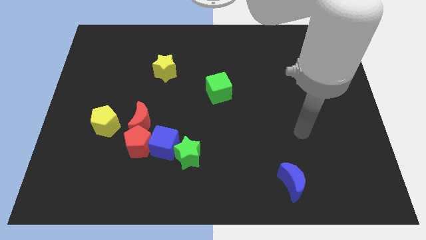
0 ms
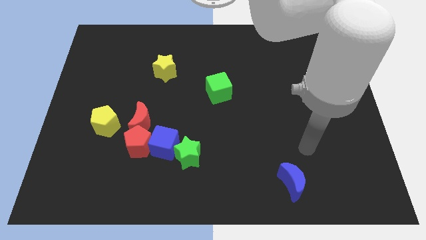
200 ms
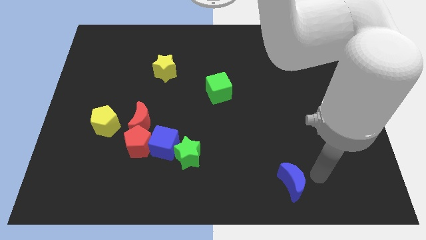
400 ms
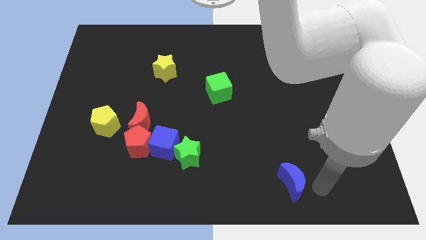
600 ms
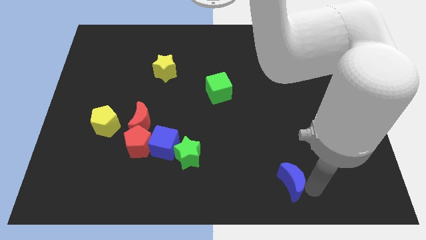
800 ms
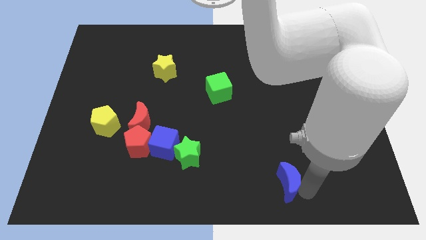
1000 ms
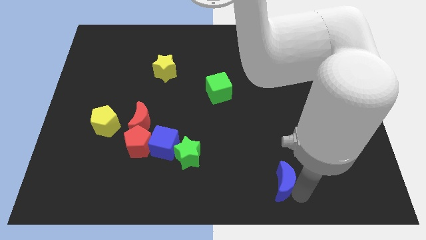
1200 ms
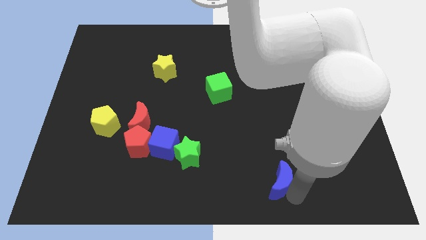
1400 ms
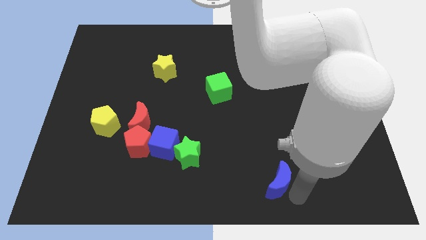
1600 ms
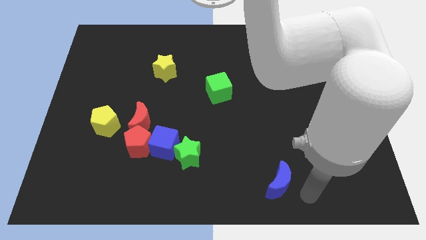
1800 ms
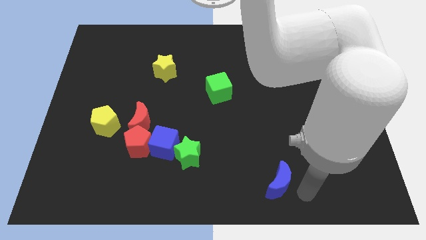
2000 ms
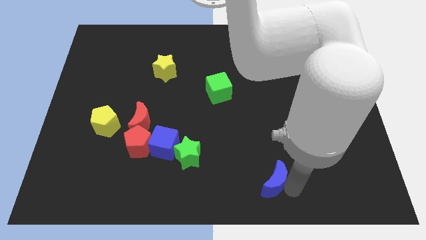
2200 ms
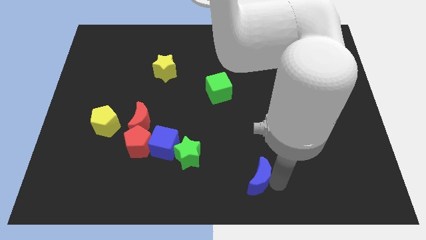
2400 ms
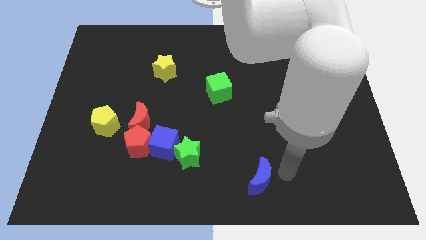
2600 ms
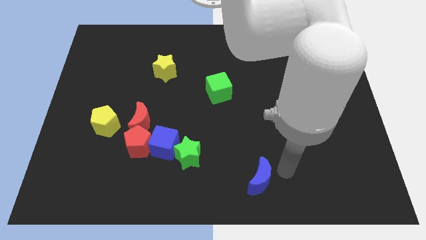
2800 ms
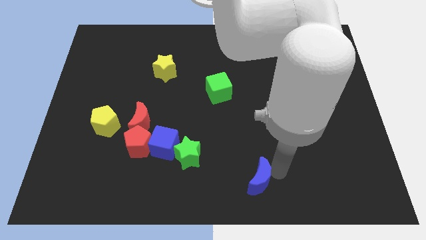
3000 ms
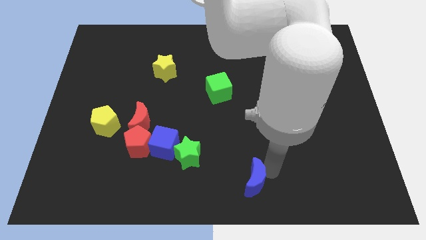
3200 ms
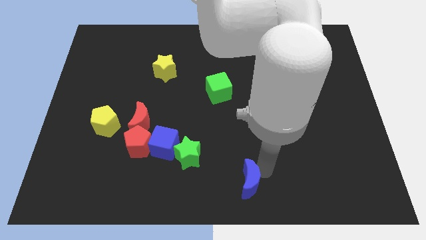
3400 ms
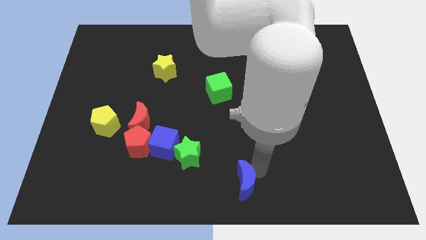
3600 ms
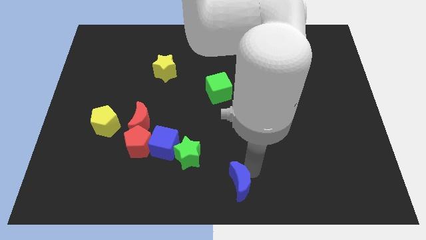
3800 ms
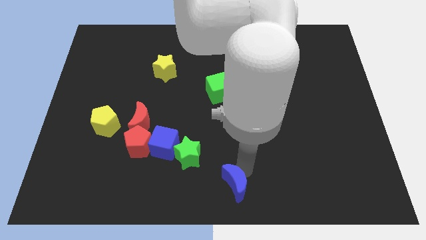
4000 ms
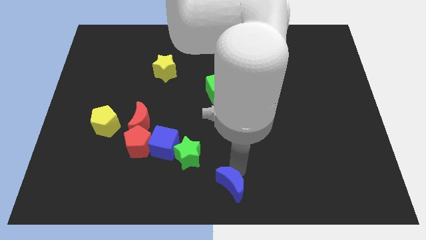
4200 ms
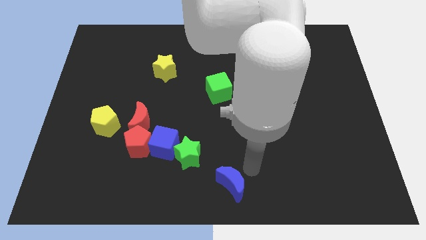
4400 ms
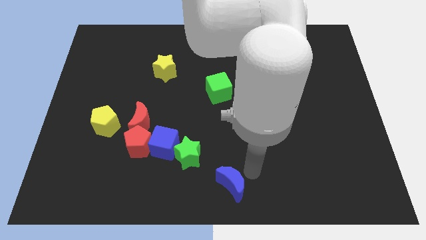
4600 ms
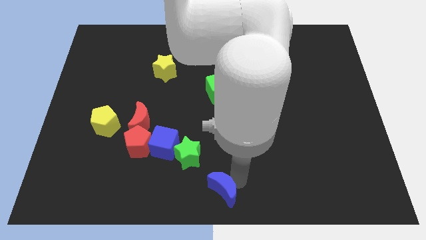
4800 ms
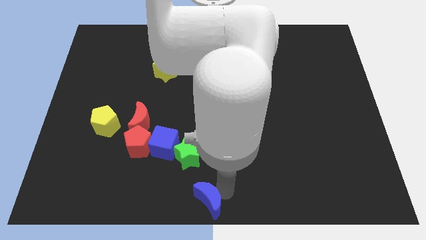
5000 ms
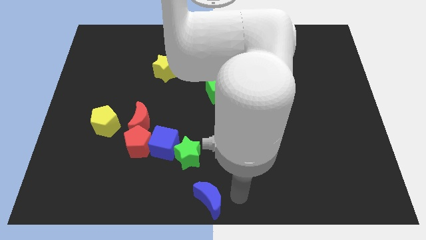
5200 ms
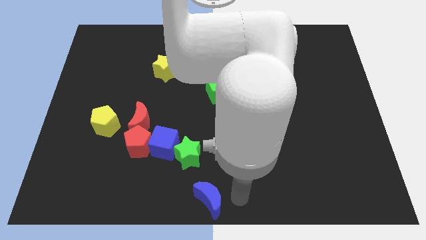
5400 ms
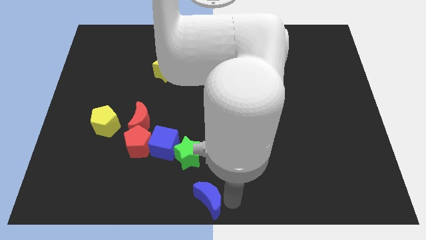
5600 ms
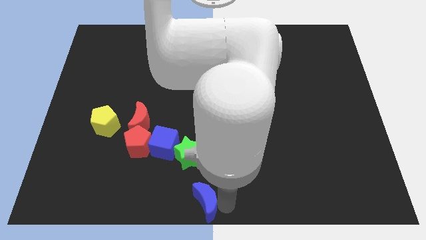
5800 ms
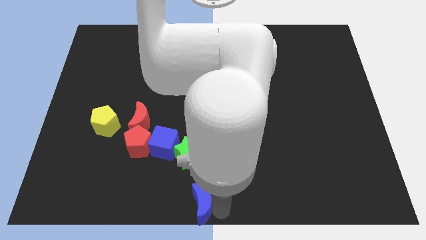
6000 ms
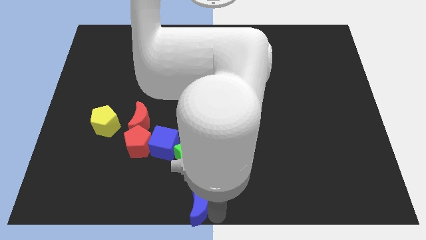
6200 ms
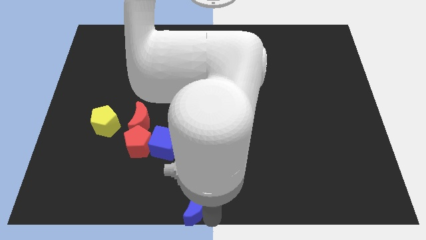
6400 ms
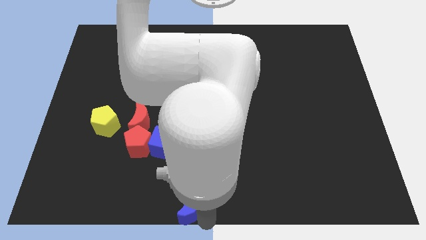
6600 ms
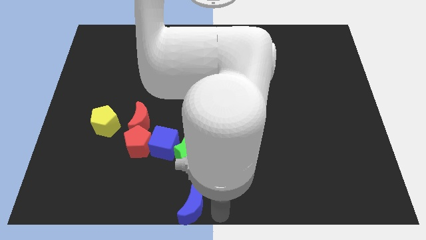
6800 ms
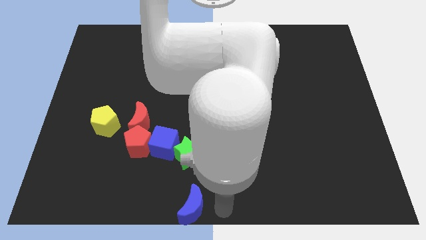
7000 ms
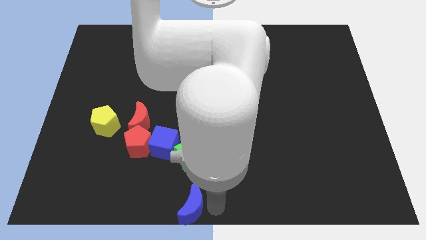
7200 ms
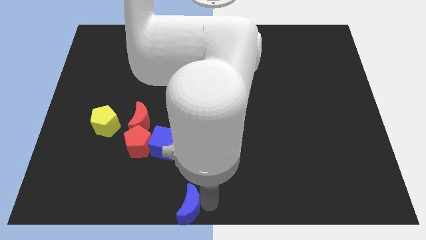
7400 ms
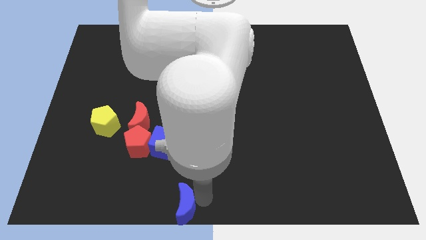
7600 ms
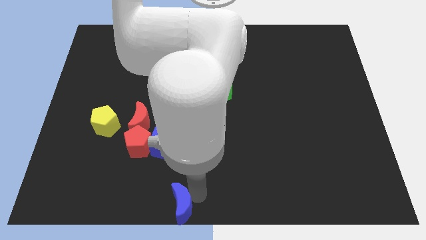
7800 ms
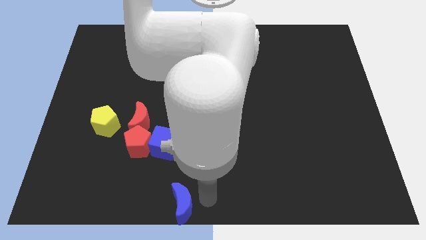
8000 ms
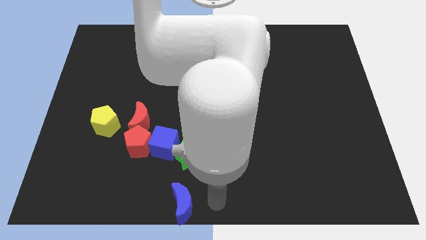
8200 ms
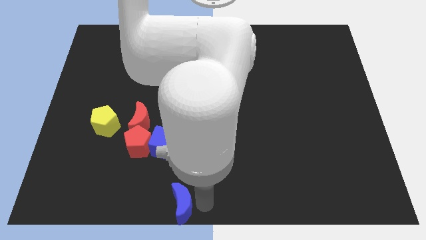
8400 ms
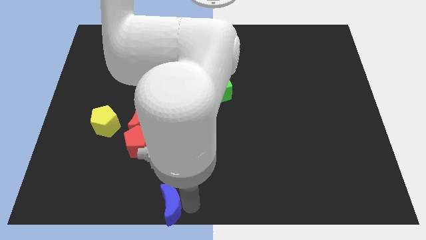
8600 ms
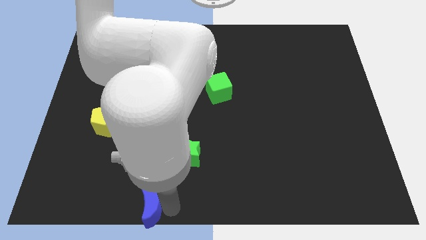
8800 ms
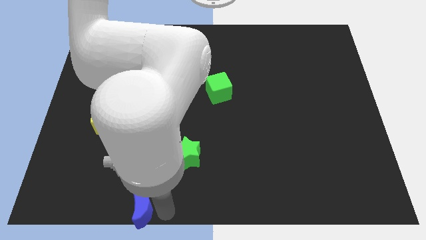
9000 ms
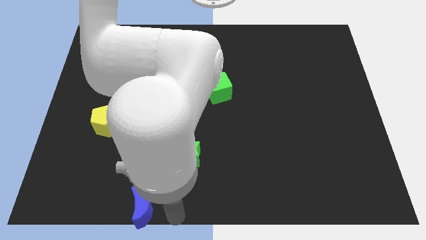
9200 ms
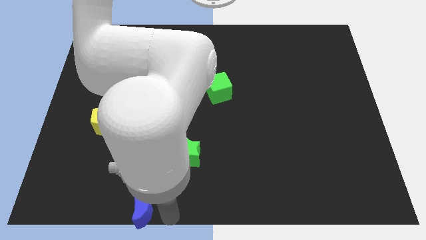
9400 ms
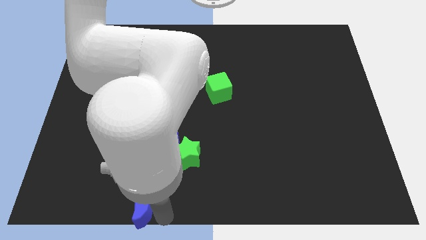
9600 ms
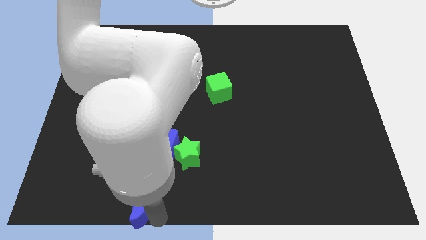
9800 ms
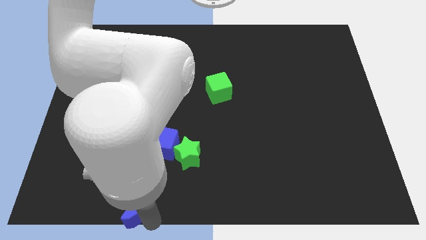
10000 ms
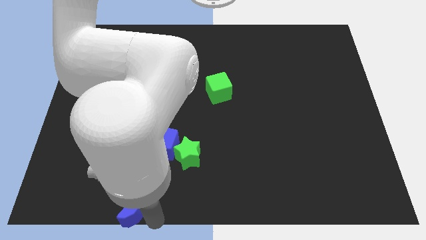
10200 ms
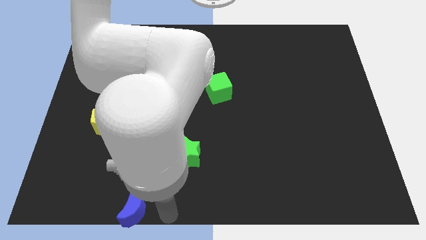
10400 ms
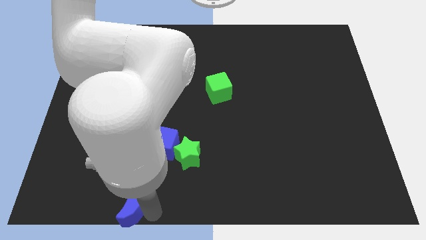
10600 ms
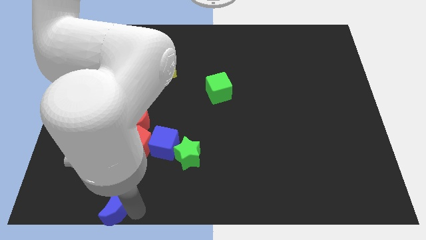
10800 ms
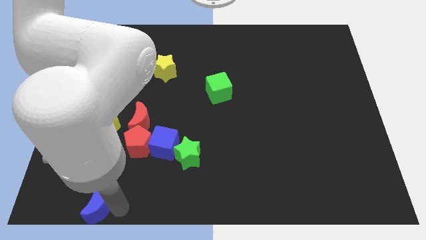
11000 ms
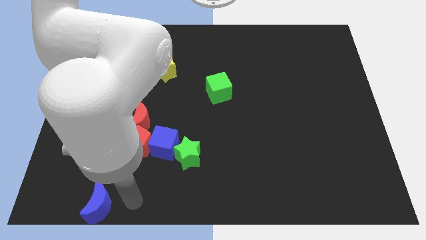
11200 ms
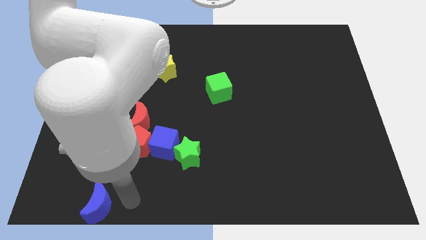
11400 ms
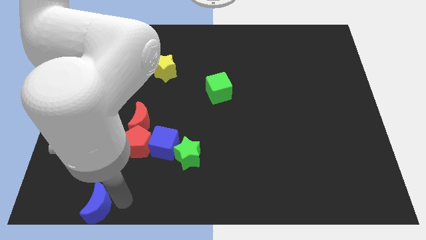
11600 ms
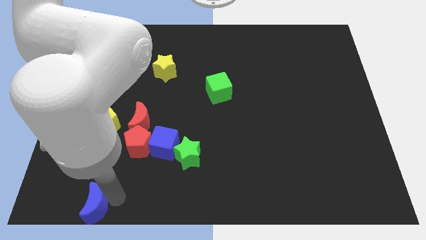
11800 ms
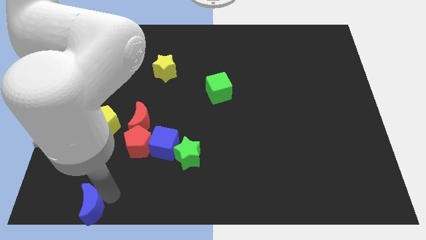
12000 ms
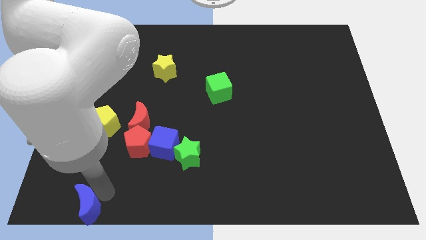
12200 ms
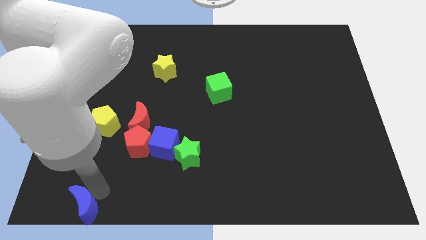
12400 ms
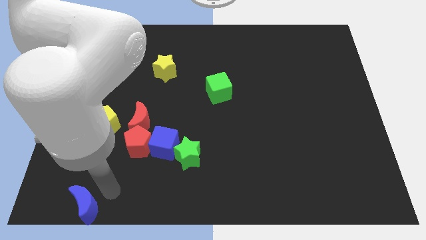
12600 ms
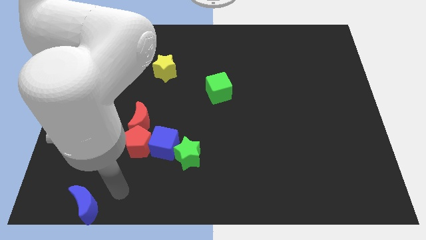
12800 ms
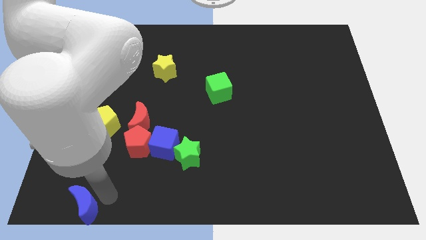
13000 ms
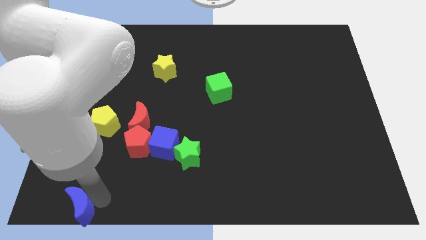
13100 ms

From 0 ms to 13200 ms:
slide the blue moon to the bottom left corner
